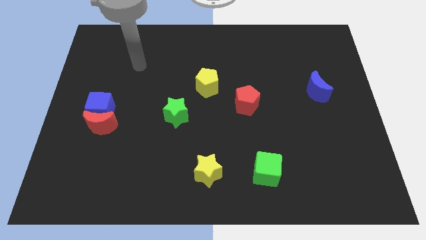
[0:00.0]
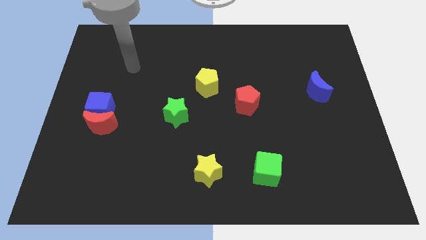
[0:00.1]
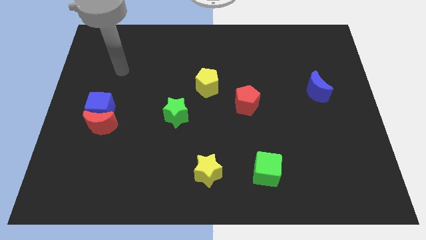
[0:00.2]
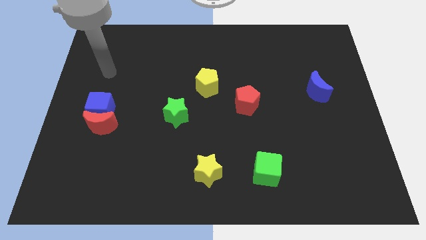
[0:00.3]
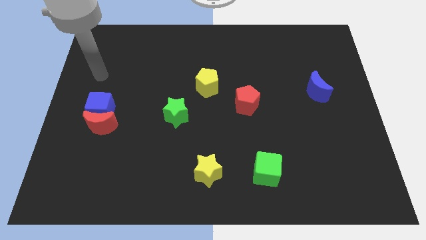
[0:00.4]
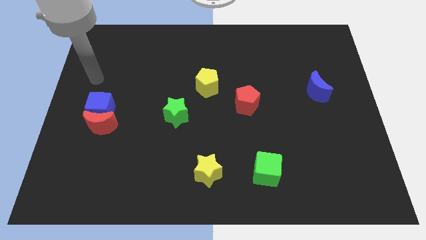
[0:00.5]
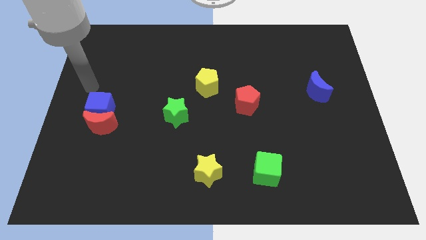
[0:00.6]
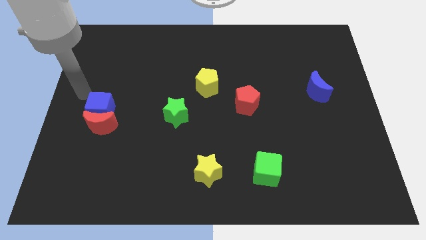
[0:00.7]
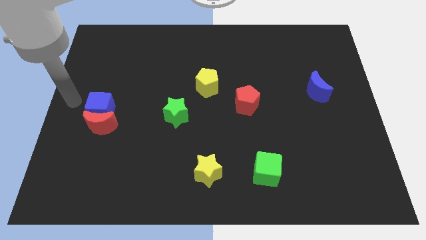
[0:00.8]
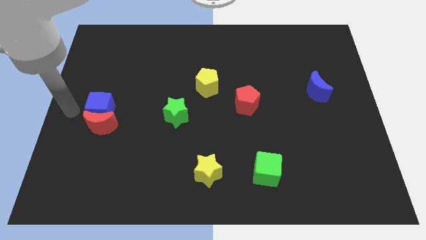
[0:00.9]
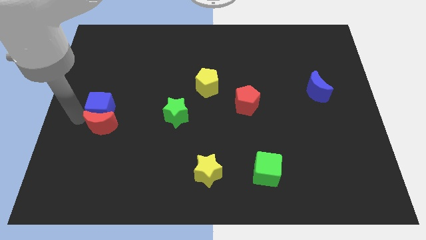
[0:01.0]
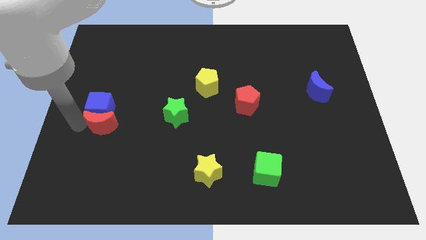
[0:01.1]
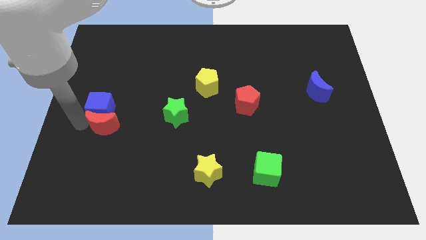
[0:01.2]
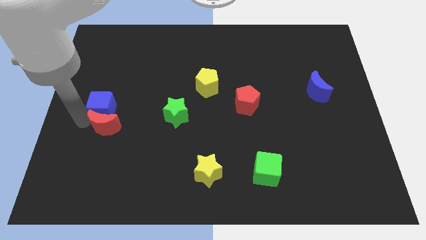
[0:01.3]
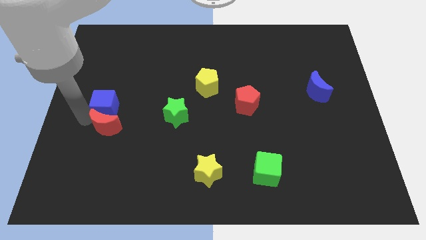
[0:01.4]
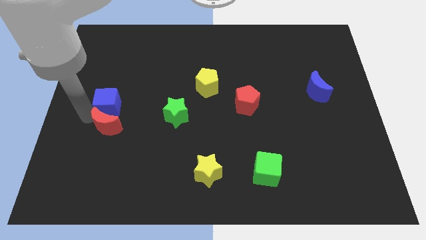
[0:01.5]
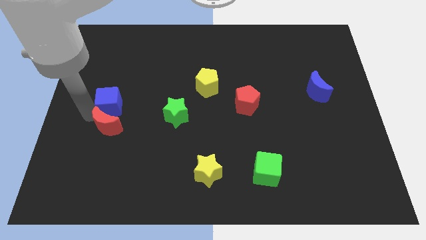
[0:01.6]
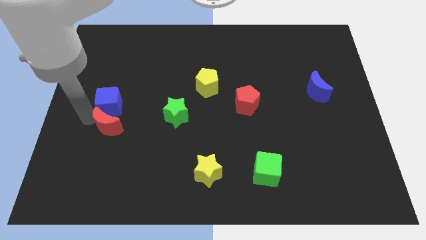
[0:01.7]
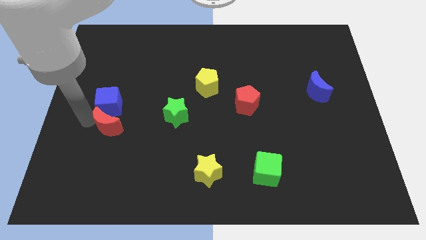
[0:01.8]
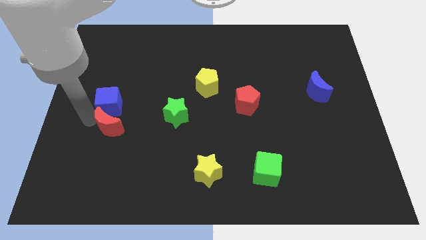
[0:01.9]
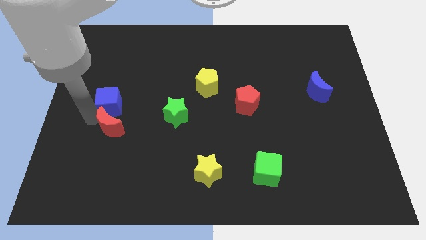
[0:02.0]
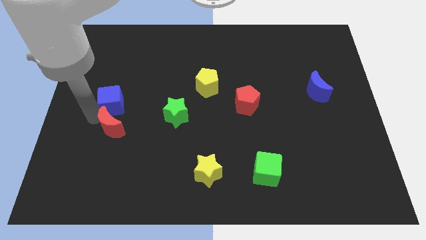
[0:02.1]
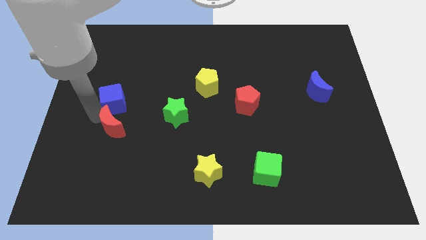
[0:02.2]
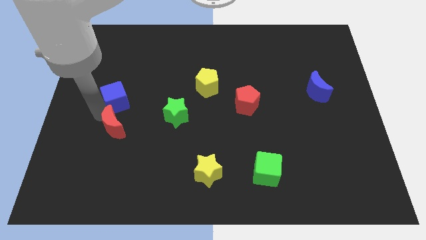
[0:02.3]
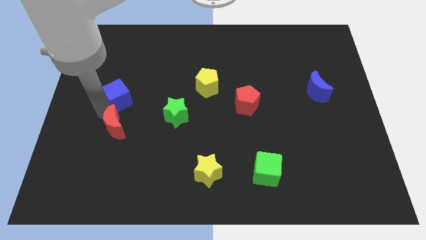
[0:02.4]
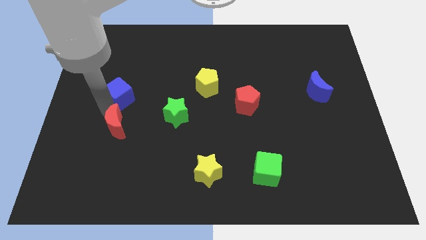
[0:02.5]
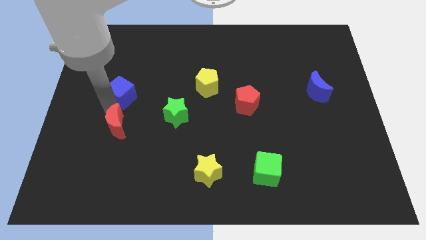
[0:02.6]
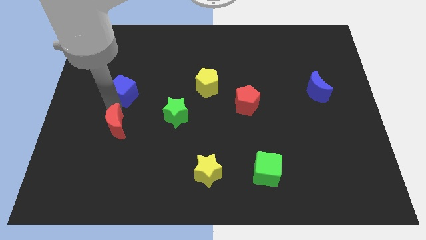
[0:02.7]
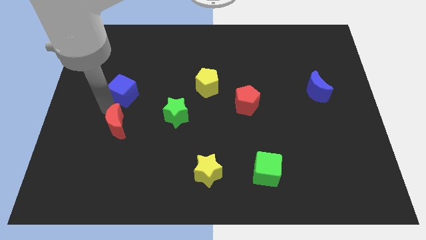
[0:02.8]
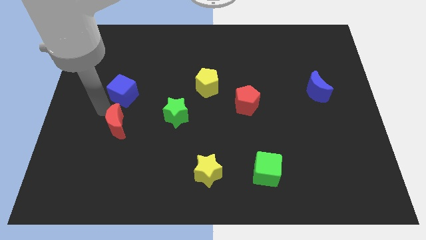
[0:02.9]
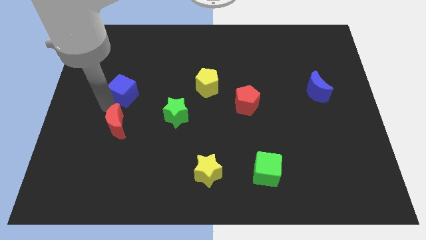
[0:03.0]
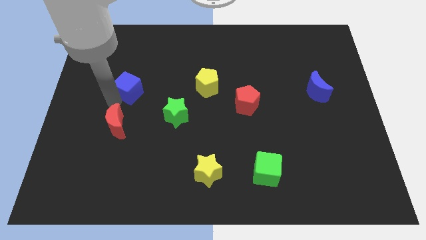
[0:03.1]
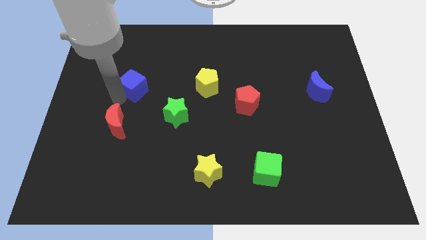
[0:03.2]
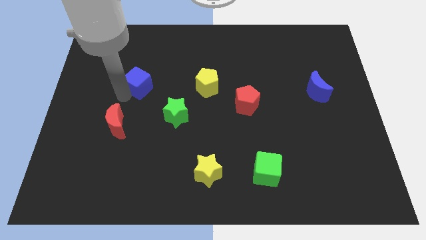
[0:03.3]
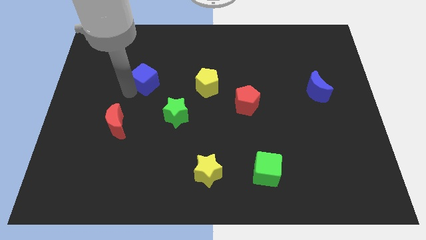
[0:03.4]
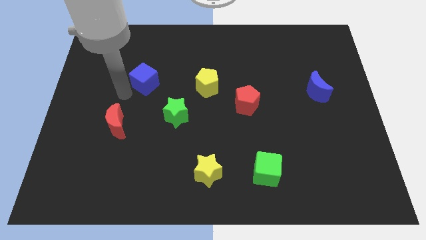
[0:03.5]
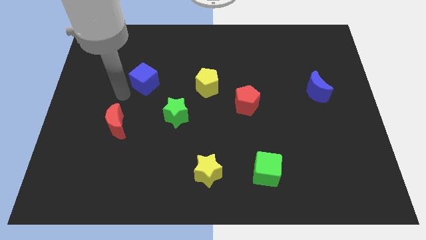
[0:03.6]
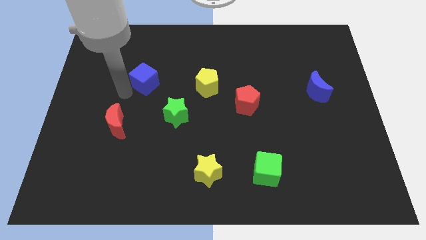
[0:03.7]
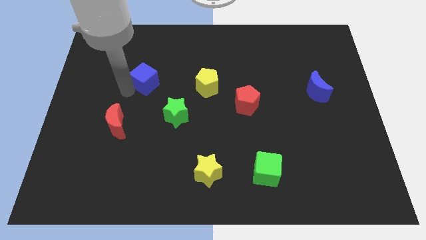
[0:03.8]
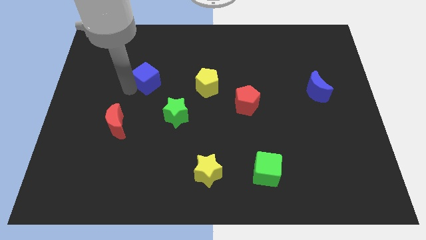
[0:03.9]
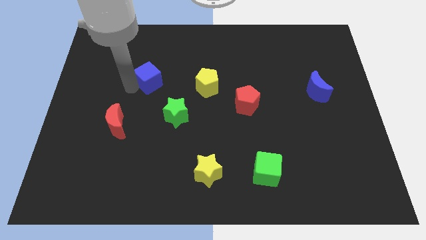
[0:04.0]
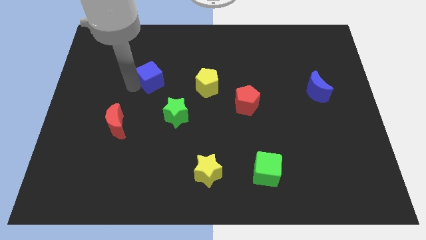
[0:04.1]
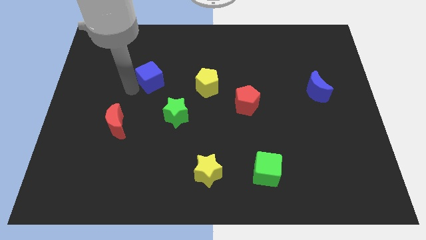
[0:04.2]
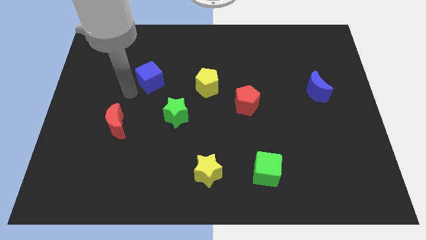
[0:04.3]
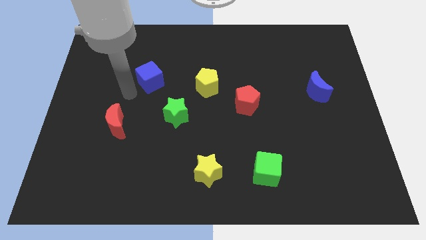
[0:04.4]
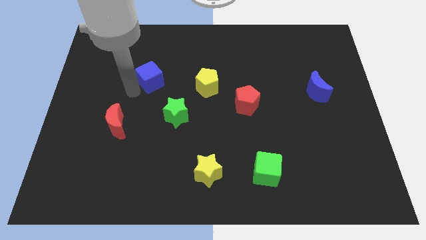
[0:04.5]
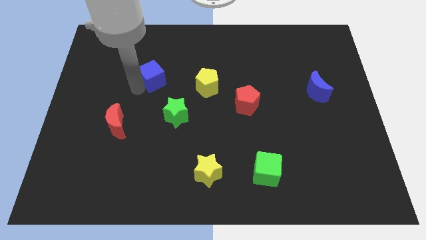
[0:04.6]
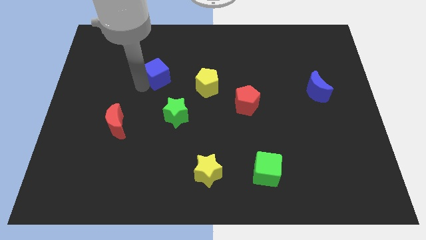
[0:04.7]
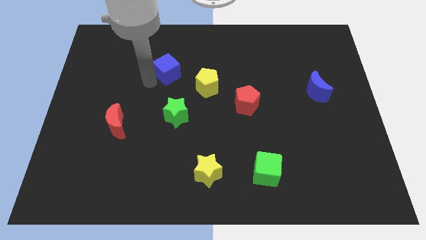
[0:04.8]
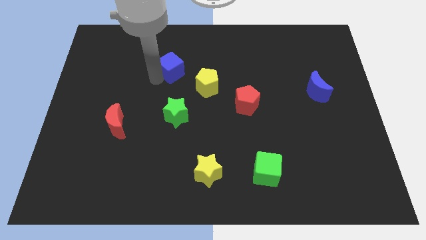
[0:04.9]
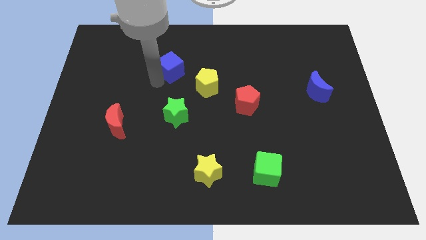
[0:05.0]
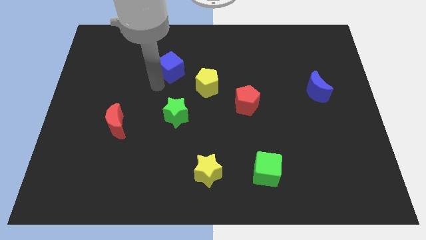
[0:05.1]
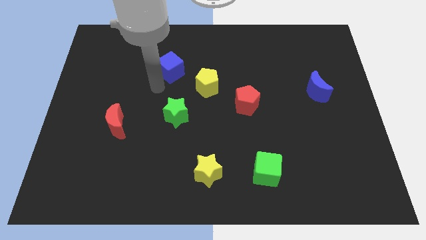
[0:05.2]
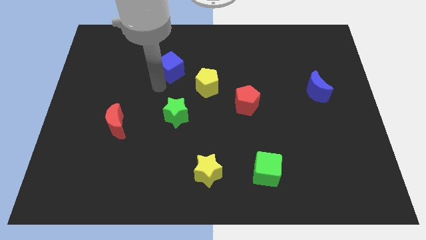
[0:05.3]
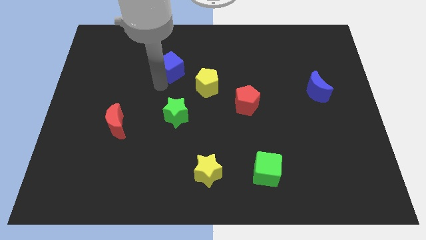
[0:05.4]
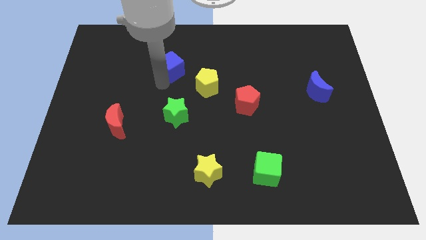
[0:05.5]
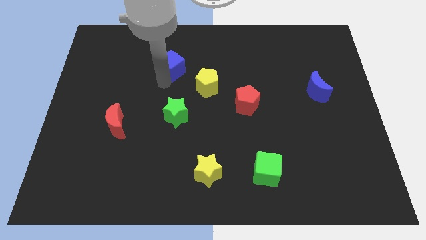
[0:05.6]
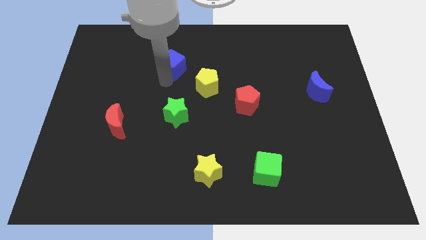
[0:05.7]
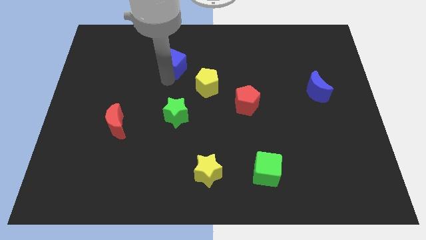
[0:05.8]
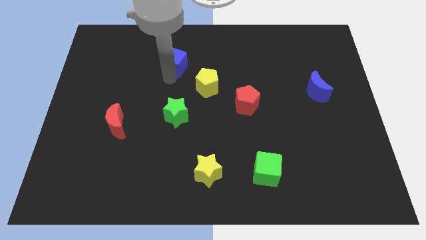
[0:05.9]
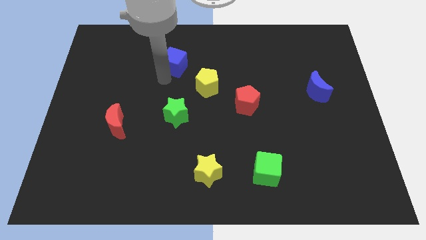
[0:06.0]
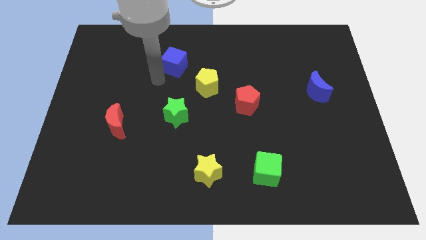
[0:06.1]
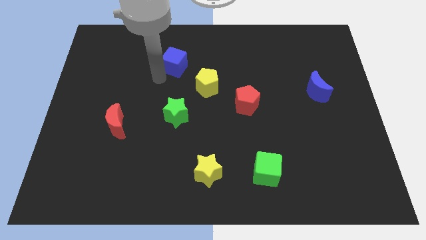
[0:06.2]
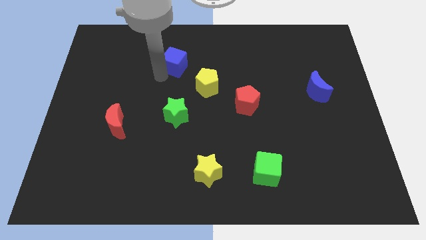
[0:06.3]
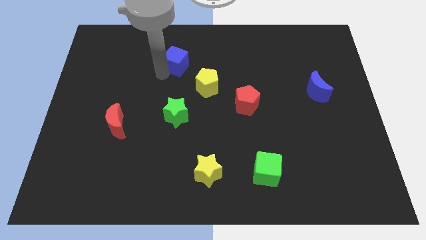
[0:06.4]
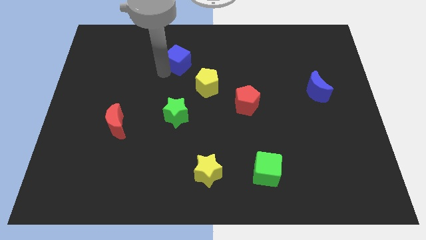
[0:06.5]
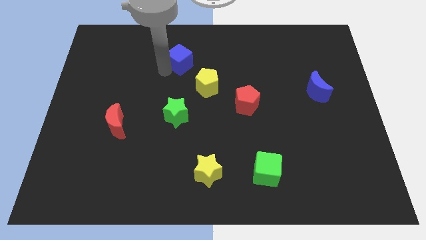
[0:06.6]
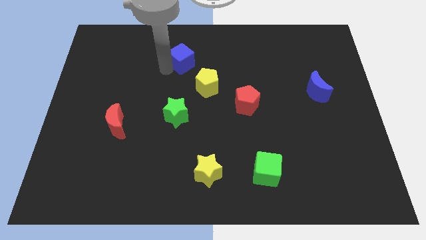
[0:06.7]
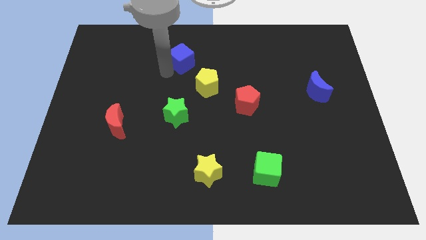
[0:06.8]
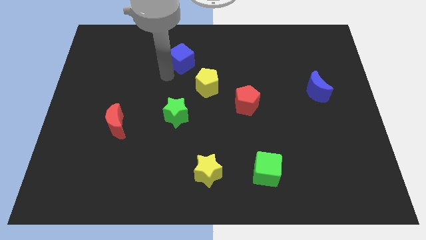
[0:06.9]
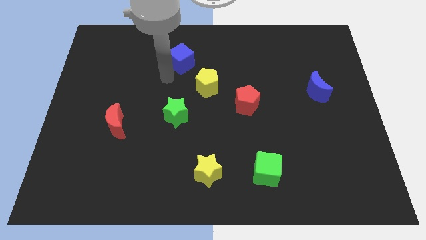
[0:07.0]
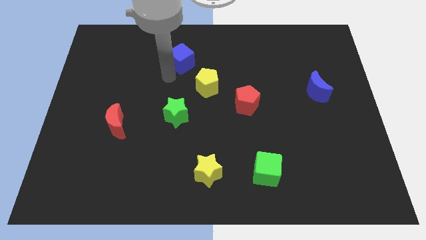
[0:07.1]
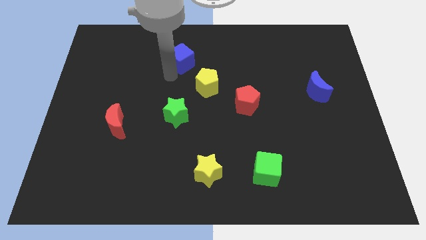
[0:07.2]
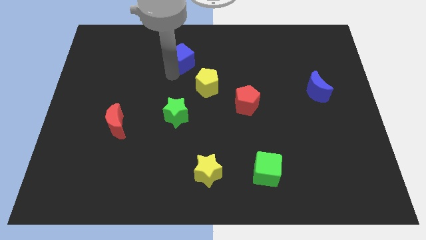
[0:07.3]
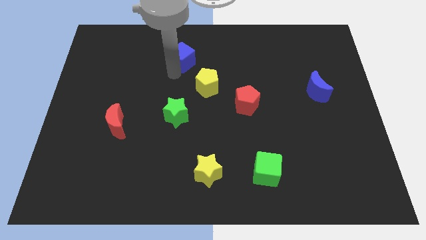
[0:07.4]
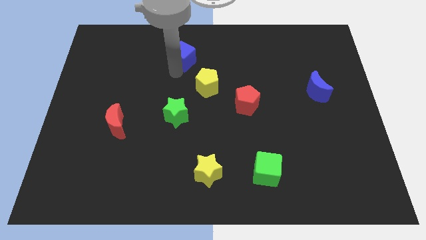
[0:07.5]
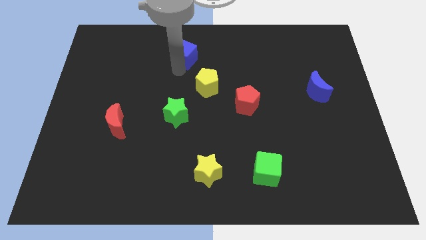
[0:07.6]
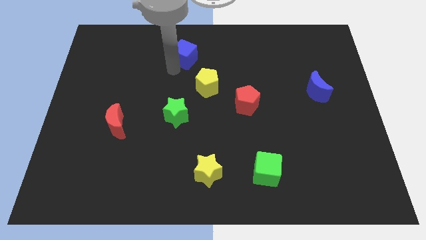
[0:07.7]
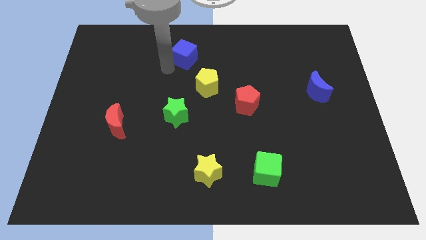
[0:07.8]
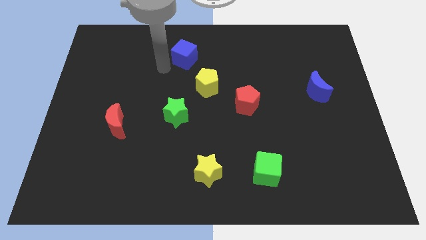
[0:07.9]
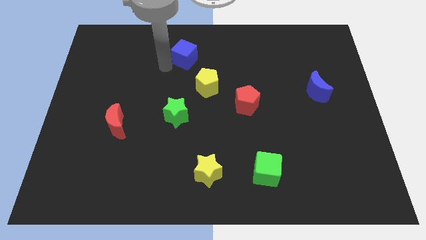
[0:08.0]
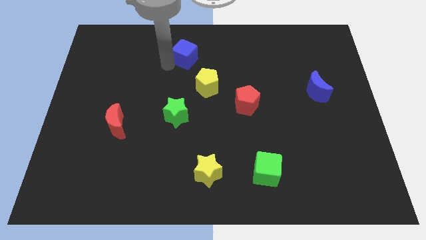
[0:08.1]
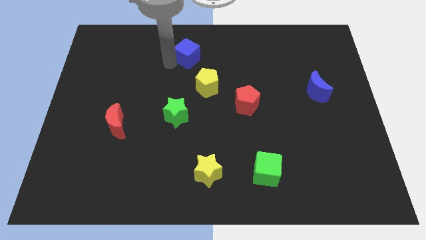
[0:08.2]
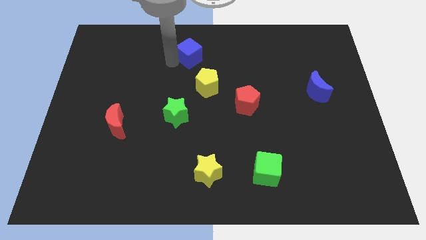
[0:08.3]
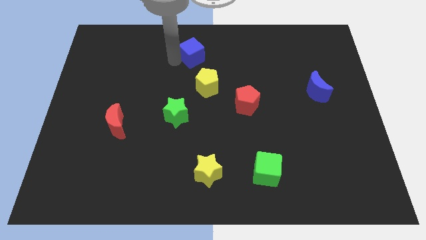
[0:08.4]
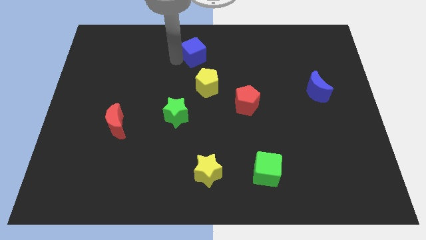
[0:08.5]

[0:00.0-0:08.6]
push the blue cube to the top side
